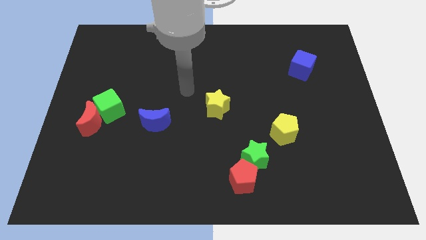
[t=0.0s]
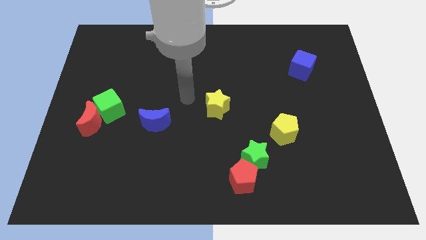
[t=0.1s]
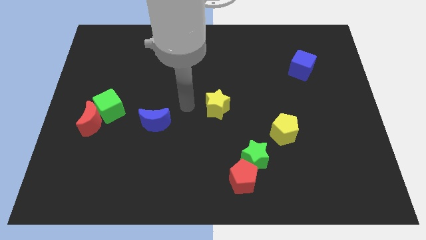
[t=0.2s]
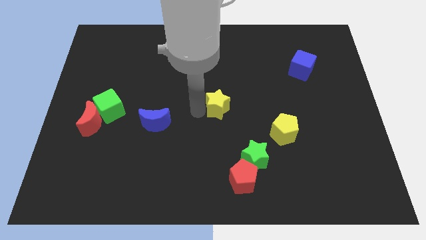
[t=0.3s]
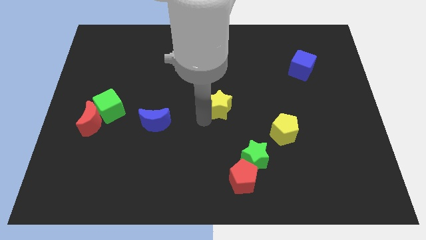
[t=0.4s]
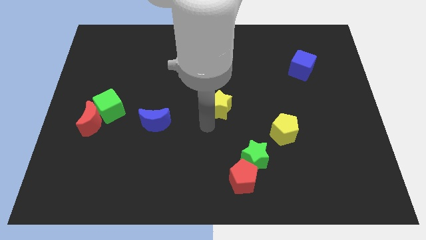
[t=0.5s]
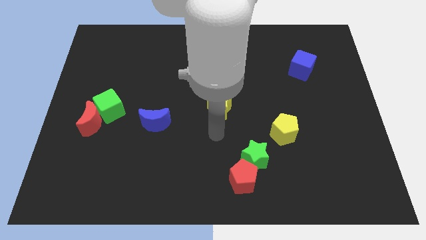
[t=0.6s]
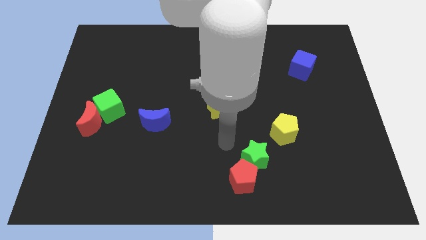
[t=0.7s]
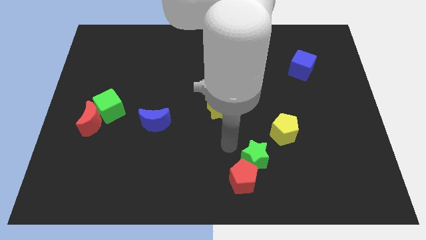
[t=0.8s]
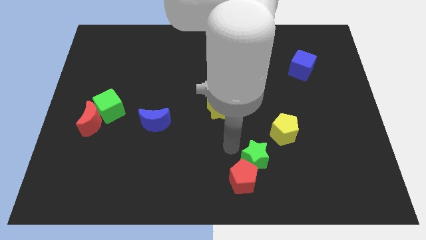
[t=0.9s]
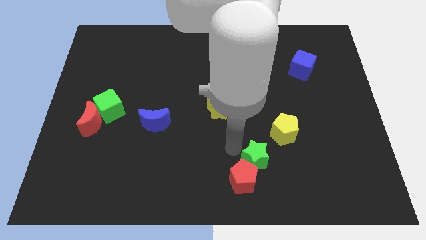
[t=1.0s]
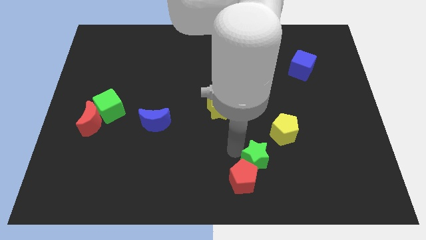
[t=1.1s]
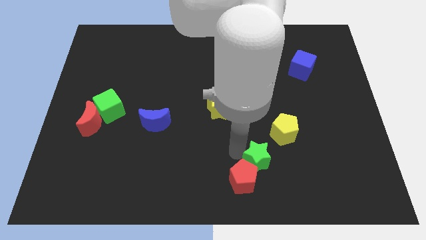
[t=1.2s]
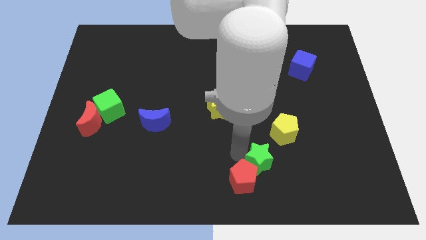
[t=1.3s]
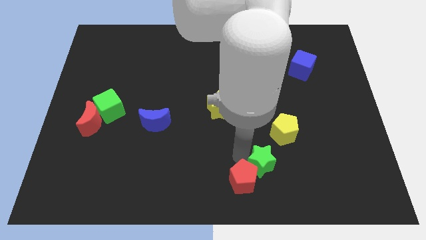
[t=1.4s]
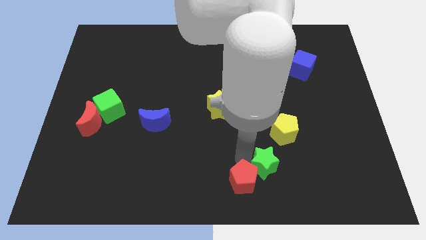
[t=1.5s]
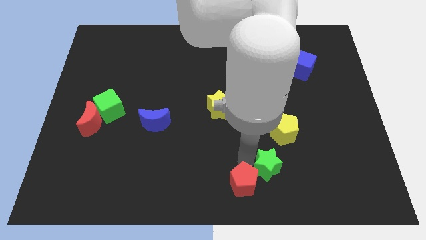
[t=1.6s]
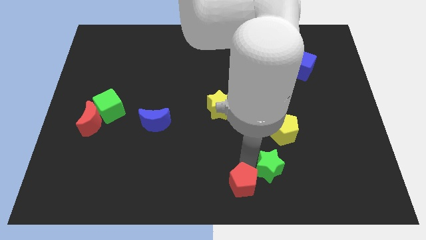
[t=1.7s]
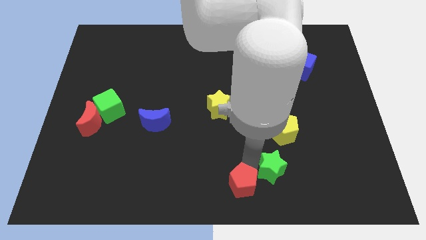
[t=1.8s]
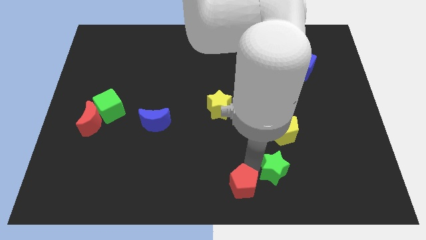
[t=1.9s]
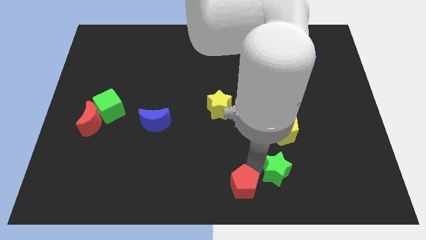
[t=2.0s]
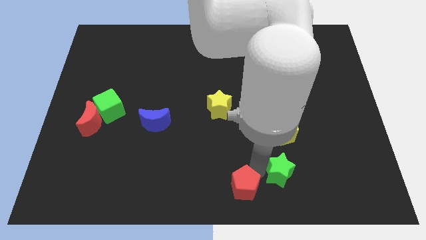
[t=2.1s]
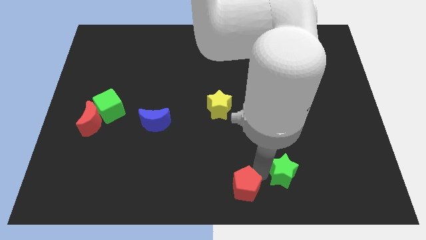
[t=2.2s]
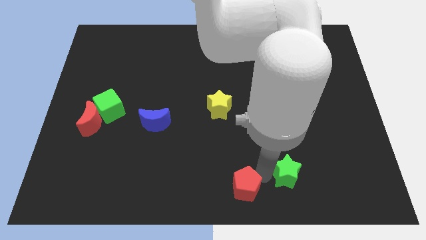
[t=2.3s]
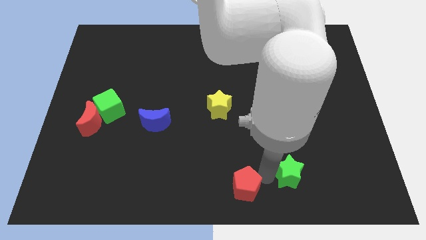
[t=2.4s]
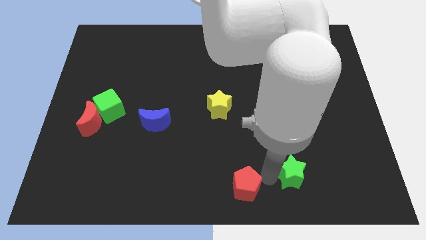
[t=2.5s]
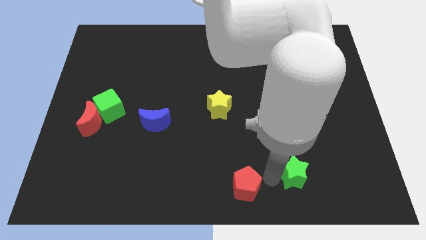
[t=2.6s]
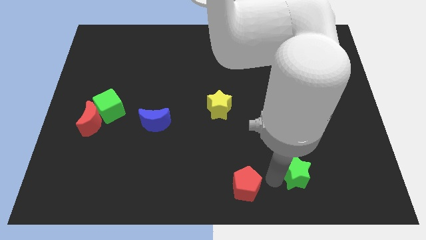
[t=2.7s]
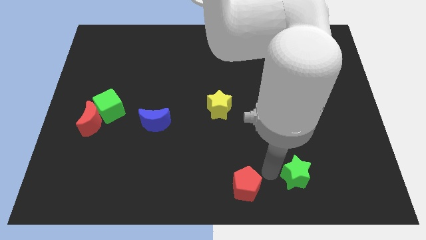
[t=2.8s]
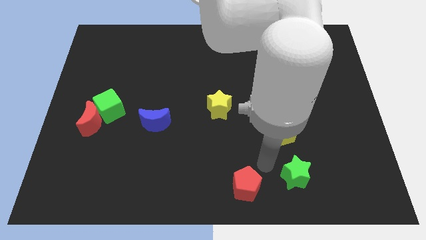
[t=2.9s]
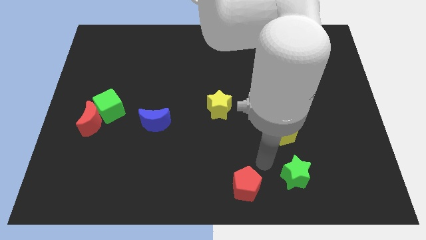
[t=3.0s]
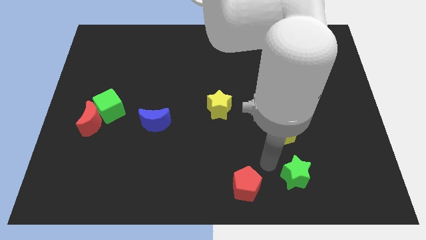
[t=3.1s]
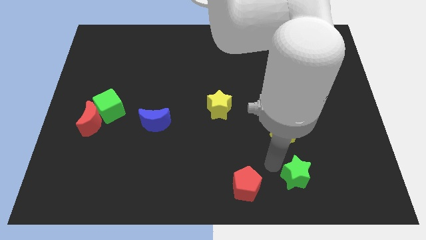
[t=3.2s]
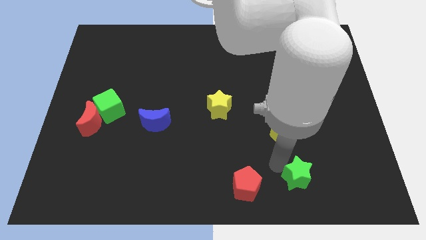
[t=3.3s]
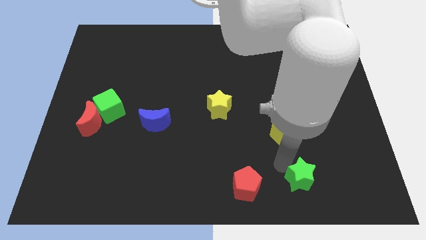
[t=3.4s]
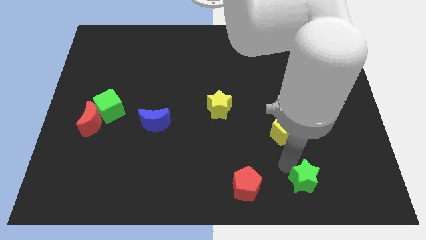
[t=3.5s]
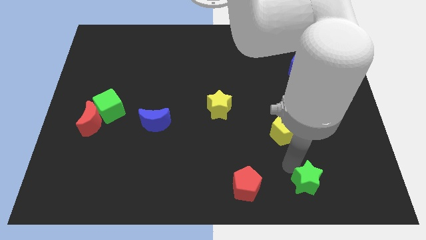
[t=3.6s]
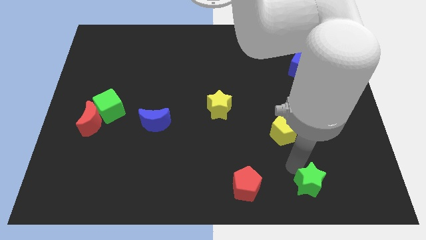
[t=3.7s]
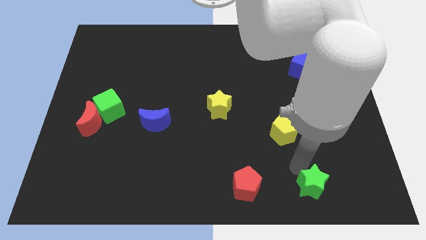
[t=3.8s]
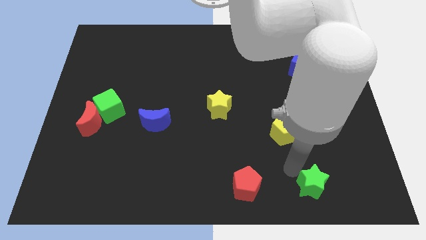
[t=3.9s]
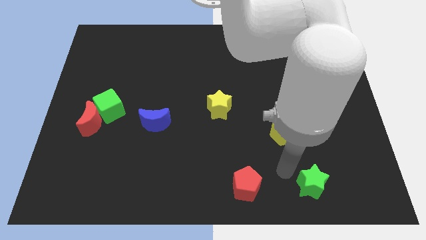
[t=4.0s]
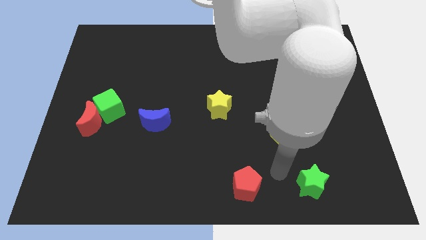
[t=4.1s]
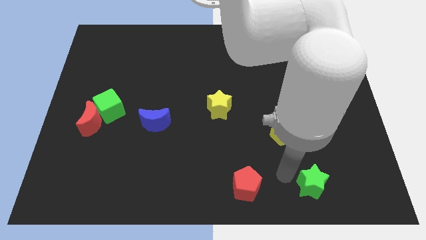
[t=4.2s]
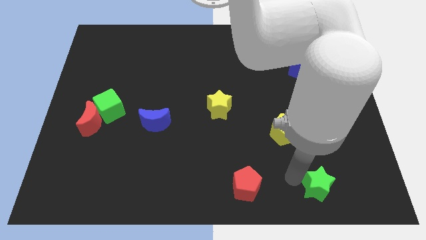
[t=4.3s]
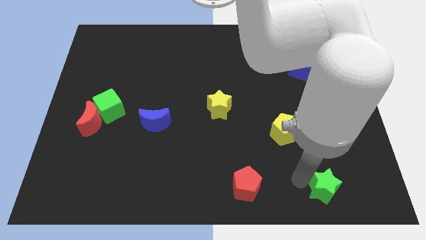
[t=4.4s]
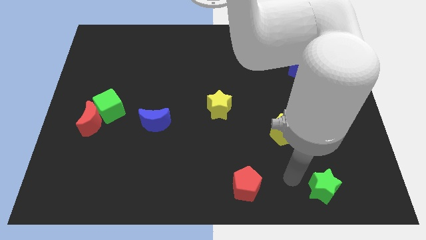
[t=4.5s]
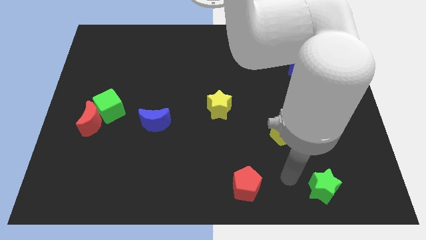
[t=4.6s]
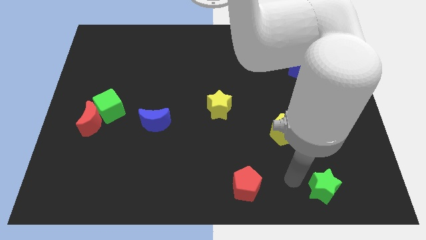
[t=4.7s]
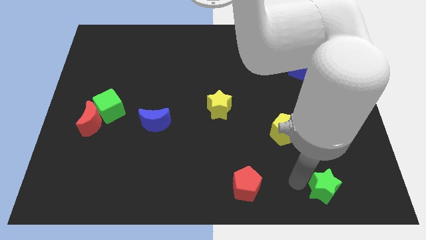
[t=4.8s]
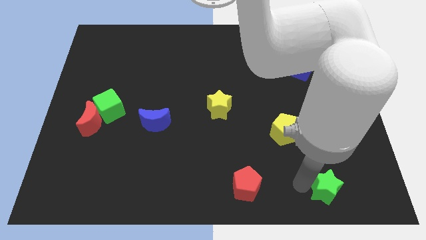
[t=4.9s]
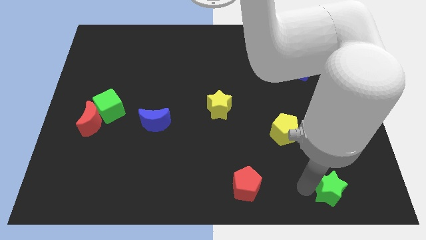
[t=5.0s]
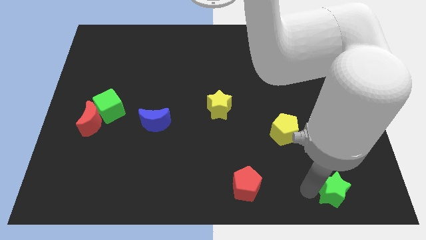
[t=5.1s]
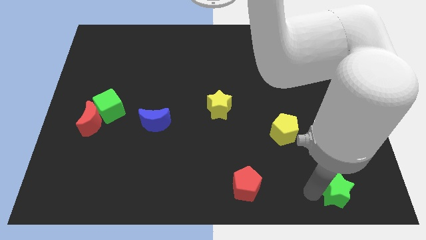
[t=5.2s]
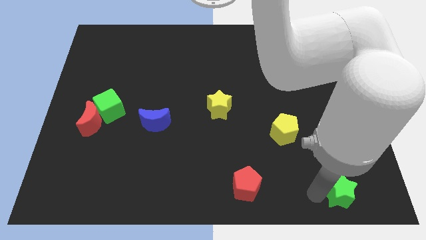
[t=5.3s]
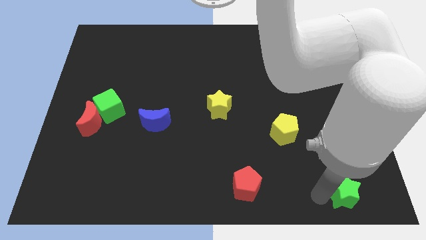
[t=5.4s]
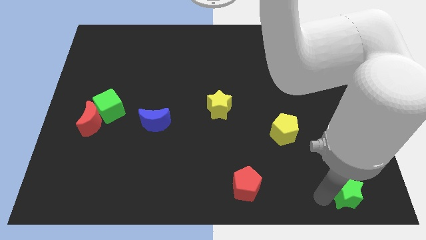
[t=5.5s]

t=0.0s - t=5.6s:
put the green star to the bottom right of the board

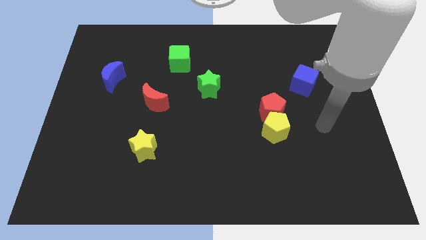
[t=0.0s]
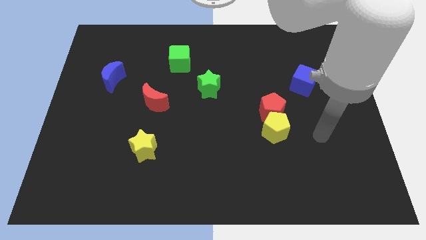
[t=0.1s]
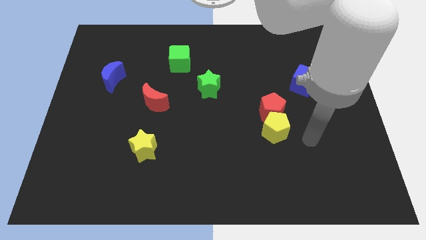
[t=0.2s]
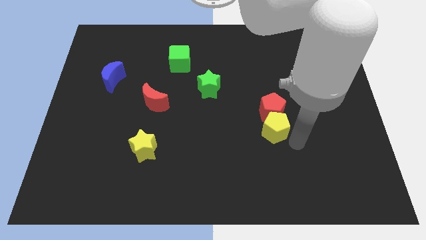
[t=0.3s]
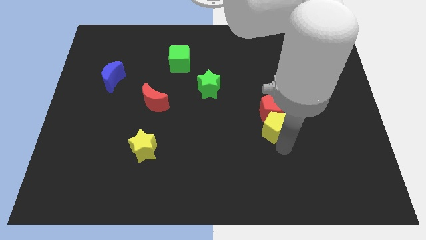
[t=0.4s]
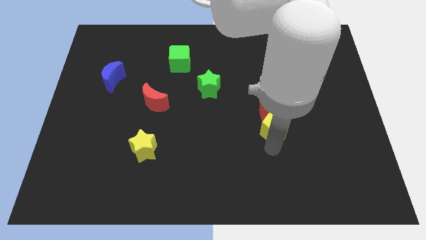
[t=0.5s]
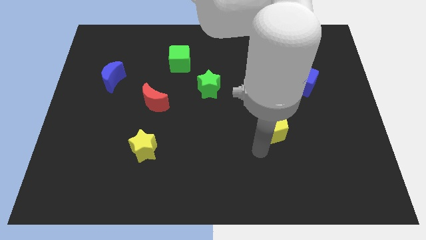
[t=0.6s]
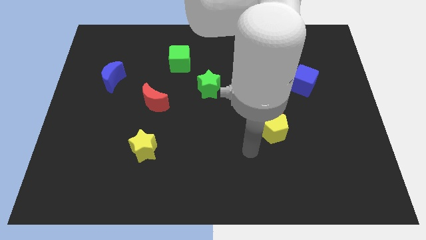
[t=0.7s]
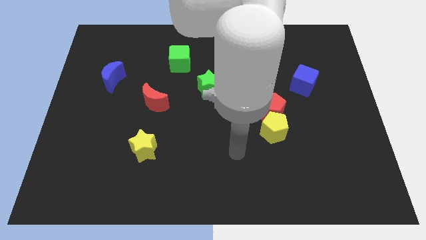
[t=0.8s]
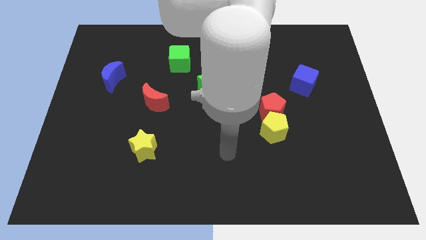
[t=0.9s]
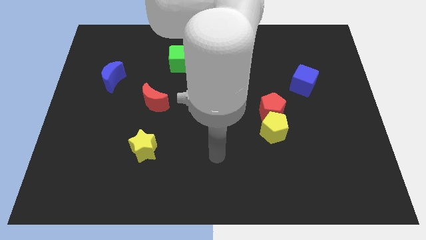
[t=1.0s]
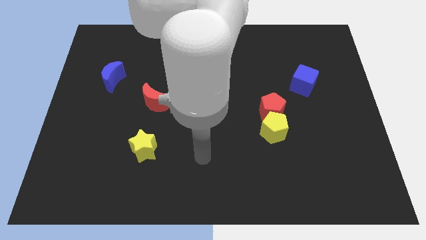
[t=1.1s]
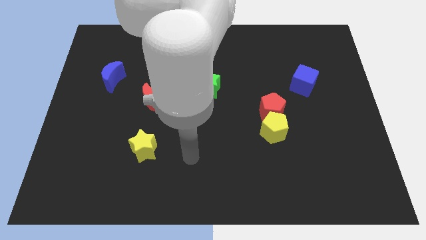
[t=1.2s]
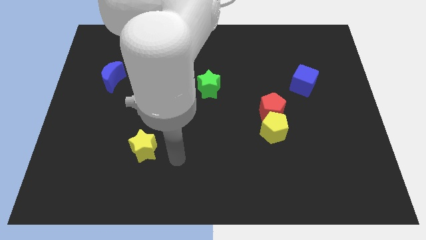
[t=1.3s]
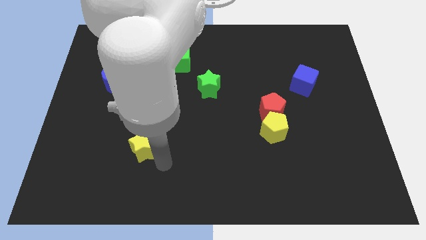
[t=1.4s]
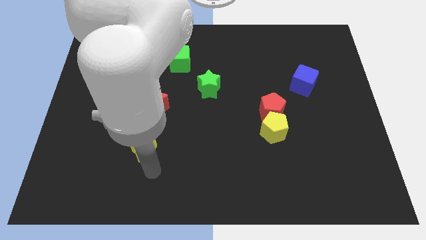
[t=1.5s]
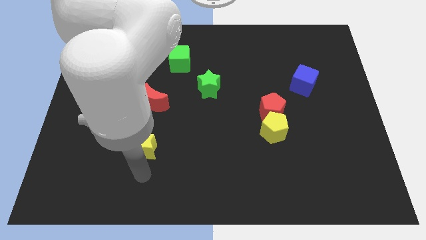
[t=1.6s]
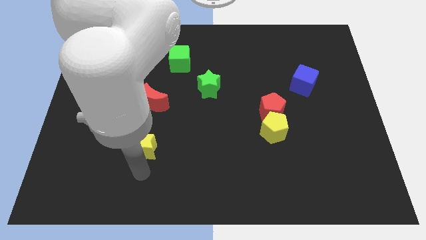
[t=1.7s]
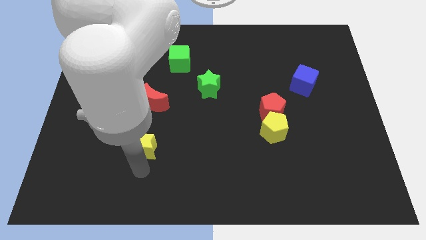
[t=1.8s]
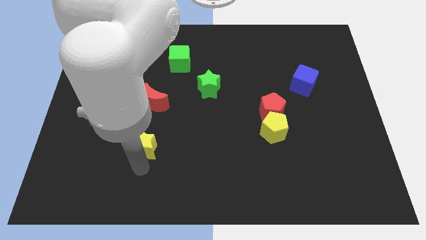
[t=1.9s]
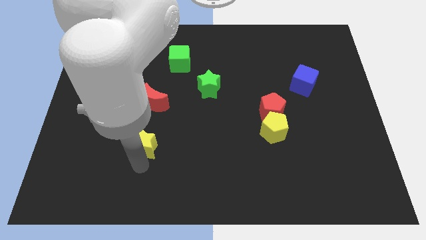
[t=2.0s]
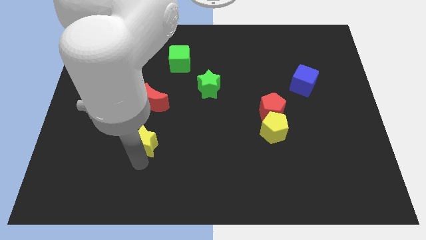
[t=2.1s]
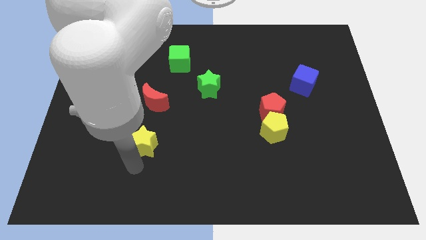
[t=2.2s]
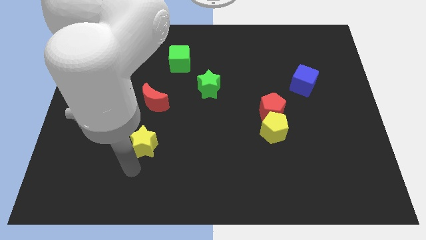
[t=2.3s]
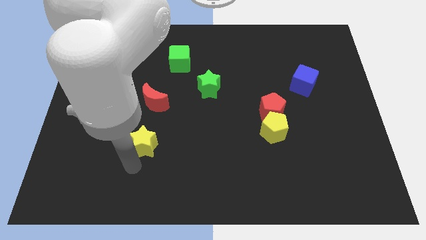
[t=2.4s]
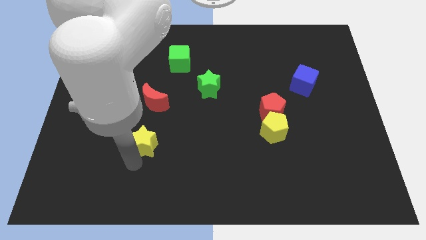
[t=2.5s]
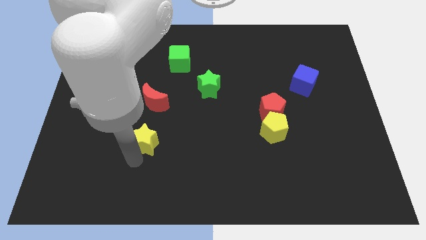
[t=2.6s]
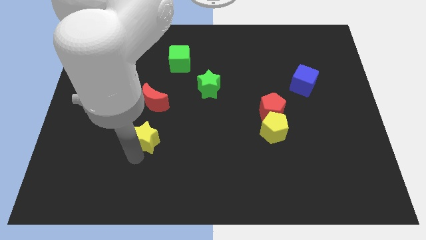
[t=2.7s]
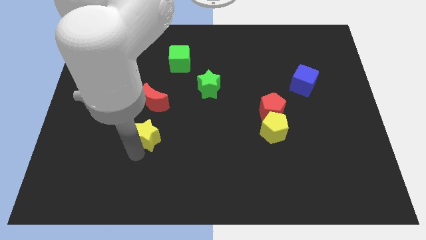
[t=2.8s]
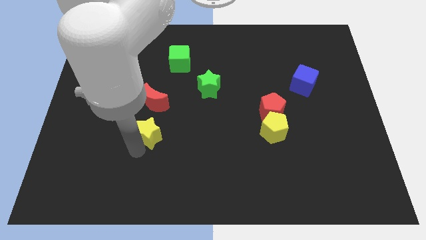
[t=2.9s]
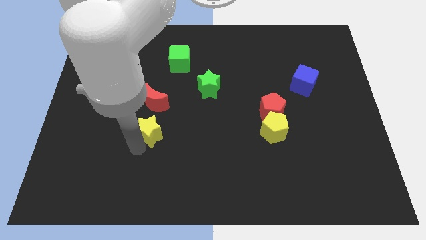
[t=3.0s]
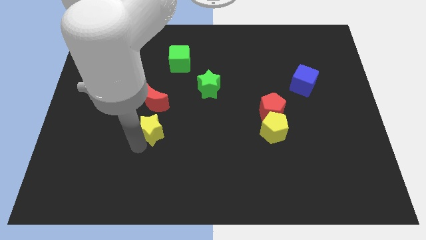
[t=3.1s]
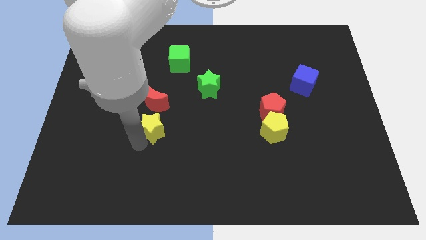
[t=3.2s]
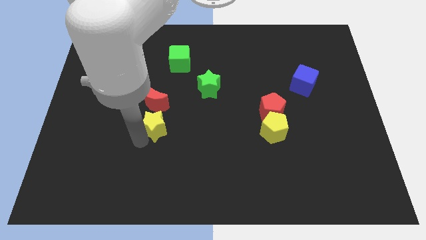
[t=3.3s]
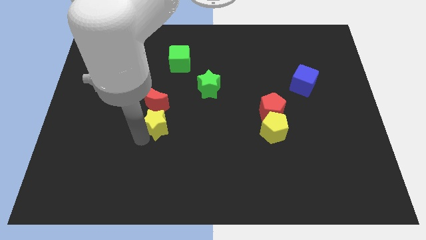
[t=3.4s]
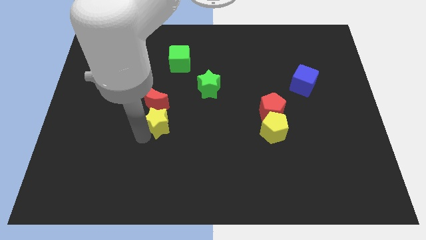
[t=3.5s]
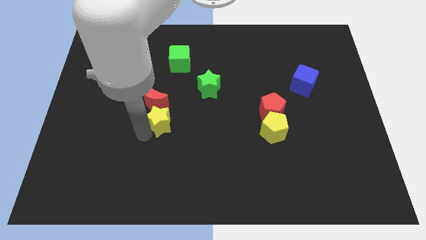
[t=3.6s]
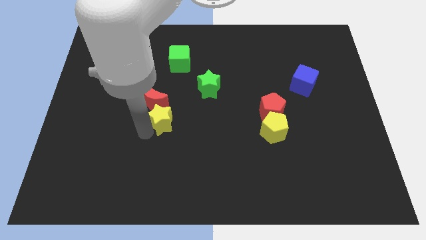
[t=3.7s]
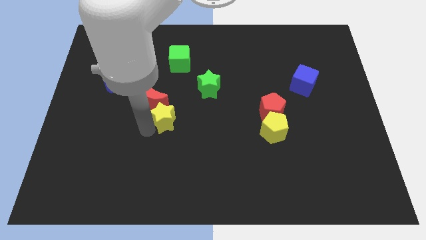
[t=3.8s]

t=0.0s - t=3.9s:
move the yellow star to the center
